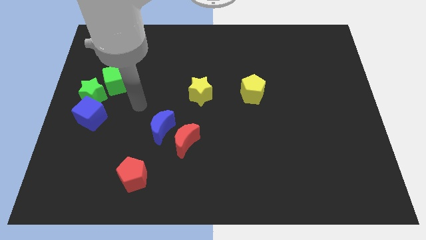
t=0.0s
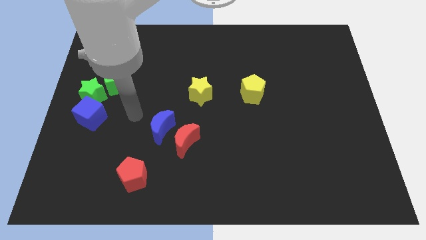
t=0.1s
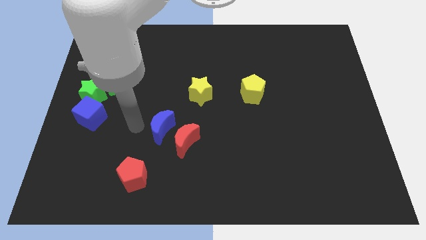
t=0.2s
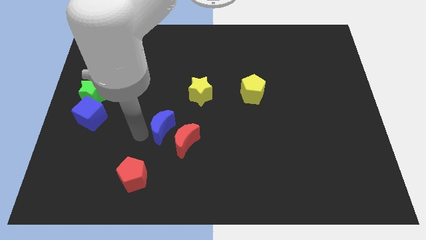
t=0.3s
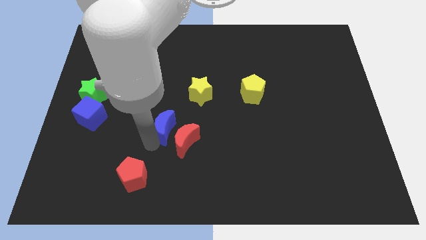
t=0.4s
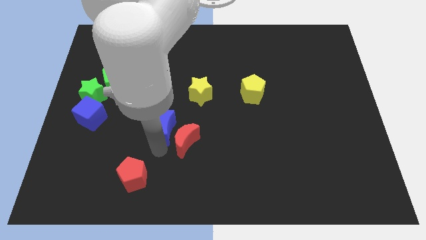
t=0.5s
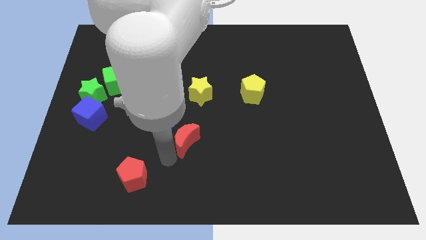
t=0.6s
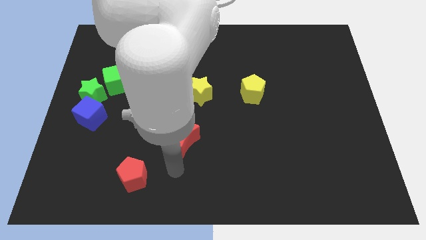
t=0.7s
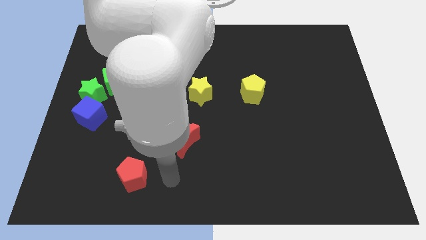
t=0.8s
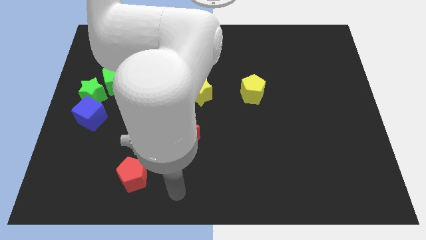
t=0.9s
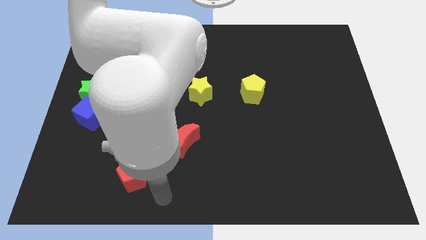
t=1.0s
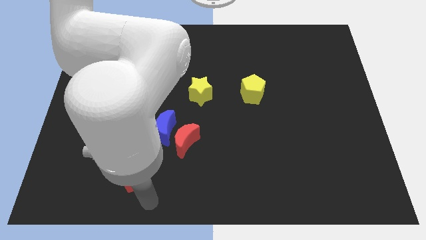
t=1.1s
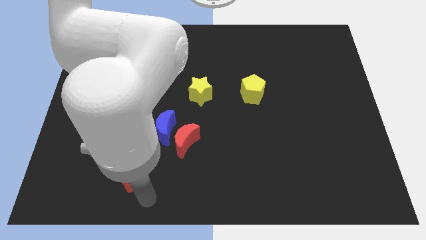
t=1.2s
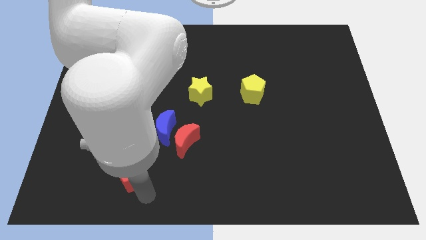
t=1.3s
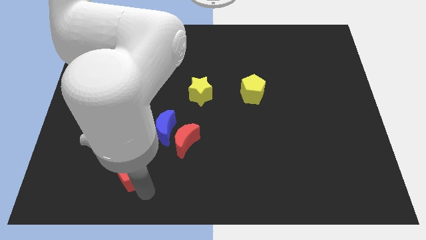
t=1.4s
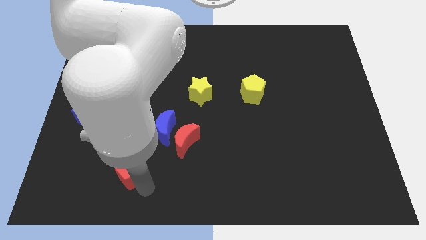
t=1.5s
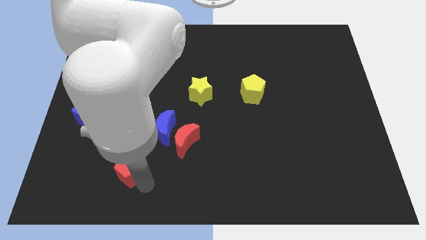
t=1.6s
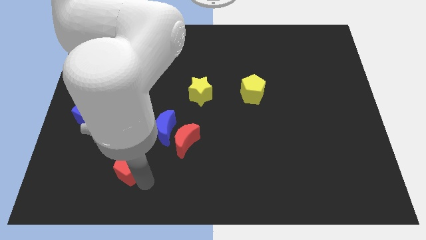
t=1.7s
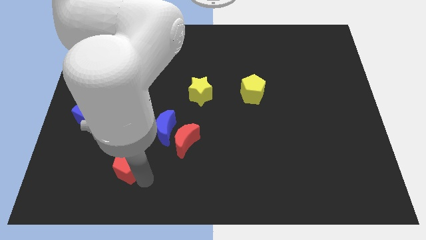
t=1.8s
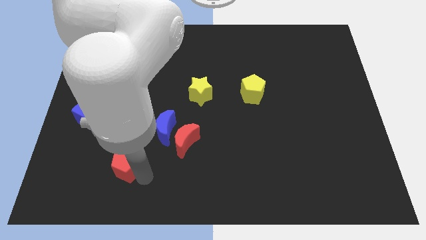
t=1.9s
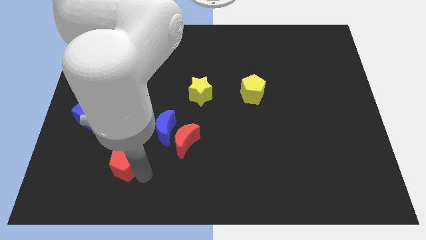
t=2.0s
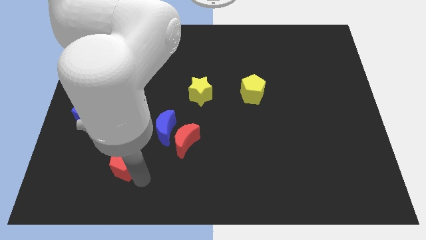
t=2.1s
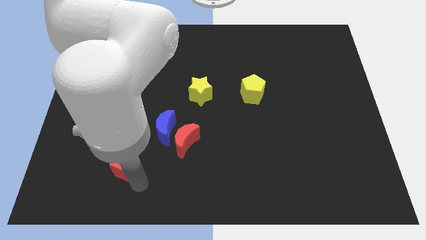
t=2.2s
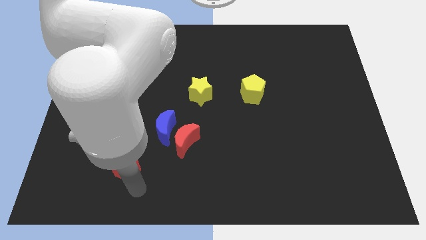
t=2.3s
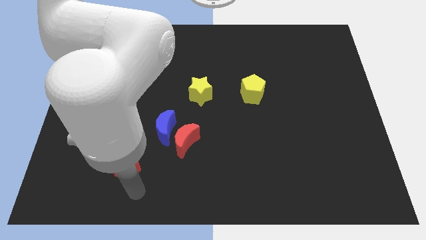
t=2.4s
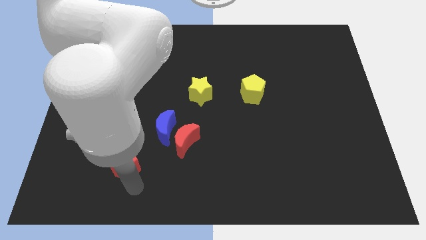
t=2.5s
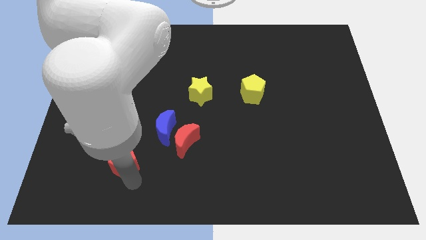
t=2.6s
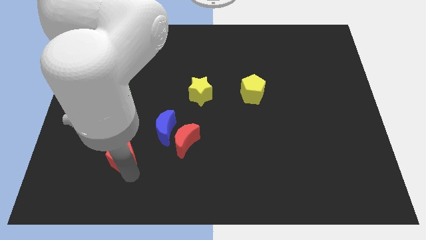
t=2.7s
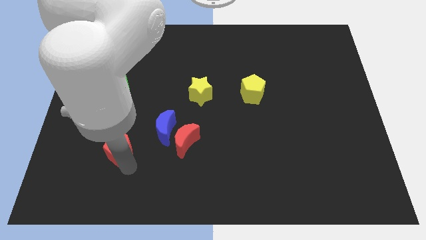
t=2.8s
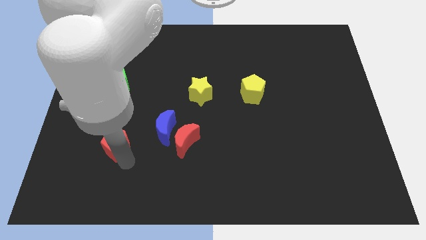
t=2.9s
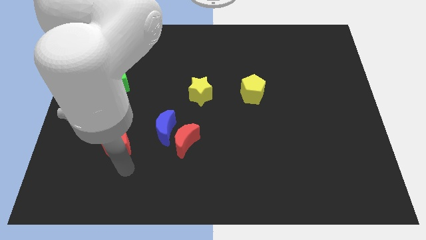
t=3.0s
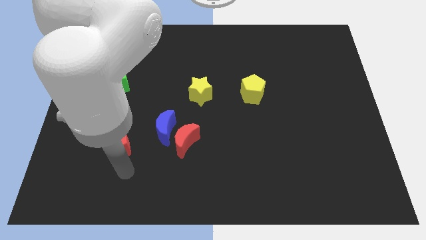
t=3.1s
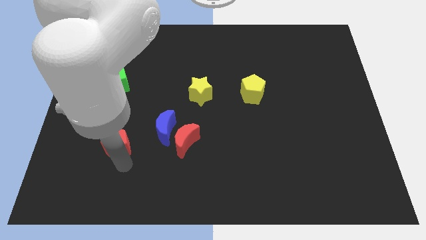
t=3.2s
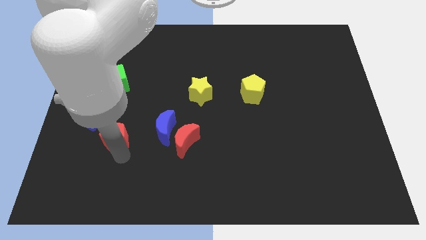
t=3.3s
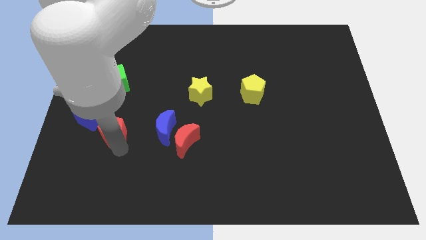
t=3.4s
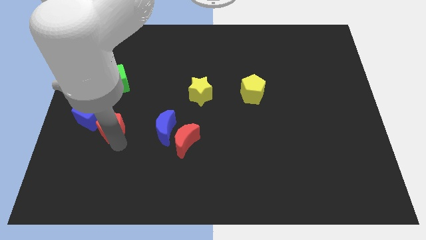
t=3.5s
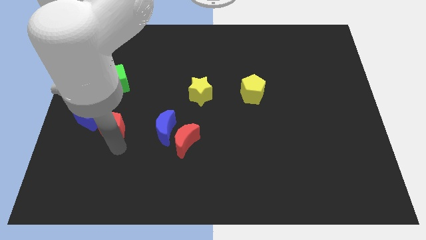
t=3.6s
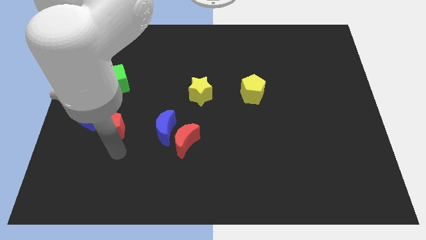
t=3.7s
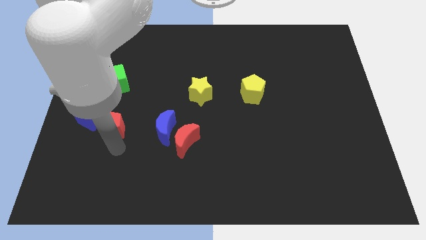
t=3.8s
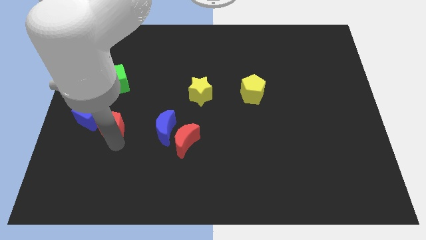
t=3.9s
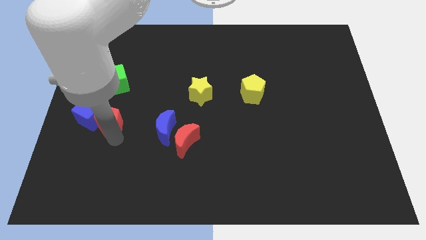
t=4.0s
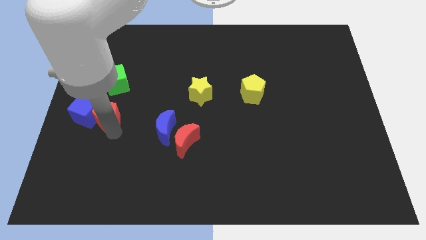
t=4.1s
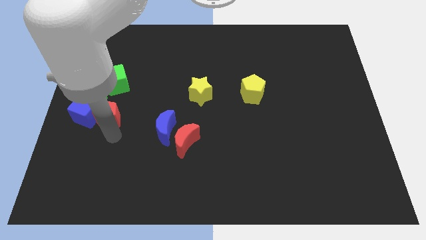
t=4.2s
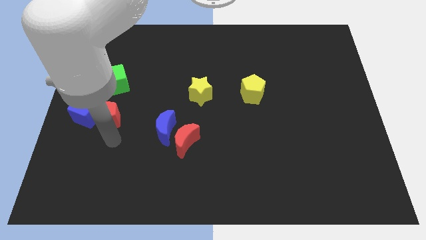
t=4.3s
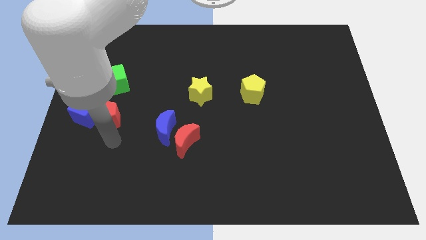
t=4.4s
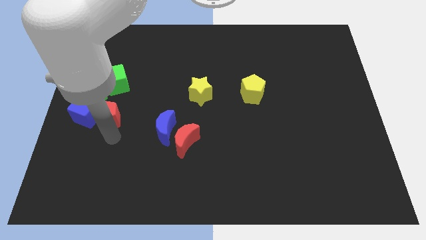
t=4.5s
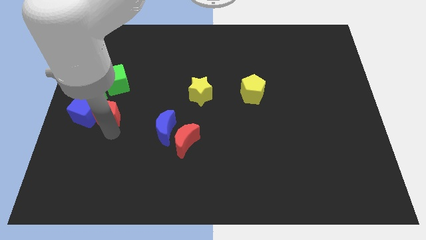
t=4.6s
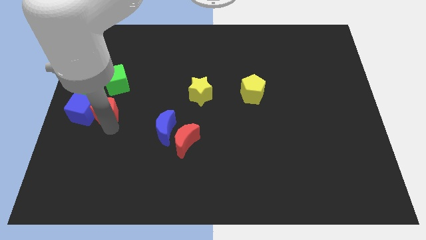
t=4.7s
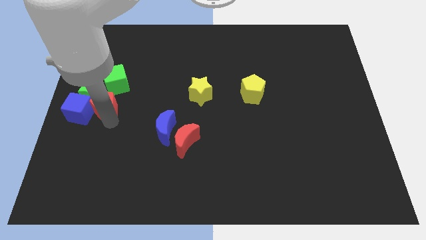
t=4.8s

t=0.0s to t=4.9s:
put the red pentagon to the green star

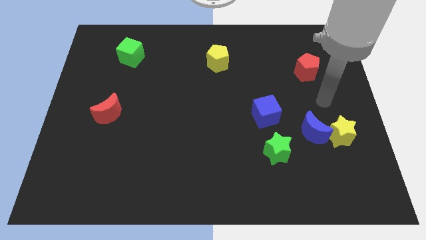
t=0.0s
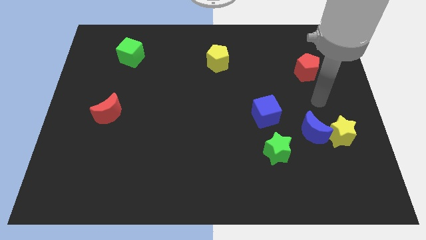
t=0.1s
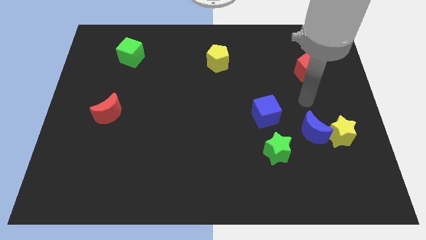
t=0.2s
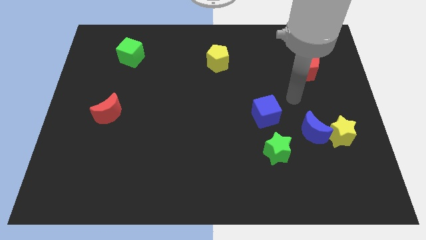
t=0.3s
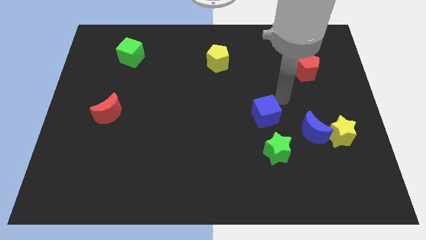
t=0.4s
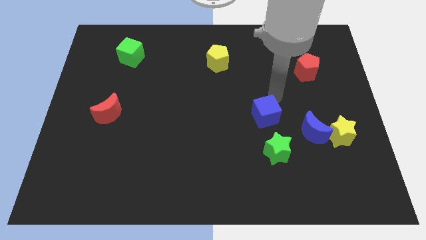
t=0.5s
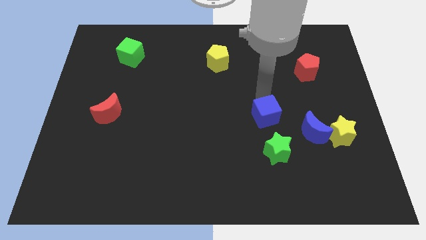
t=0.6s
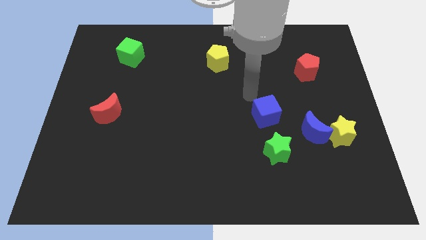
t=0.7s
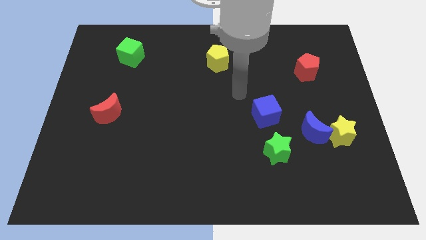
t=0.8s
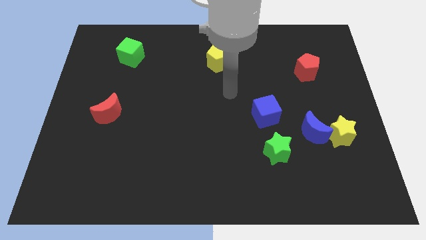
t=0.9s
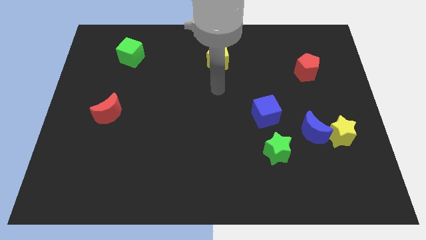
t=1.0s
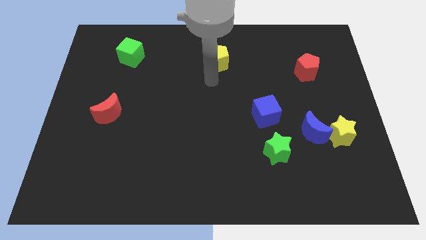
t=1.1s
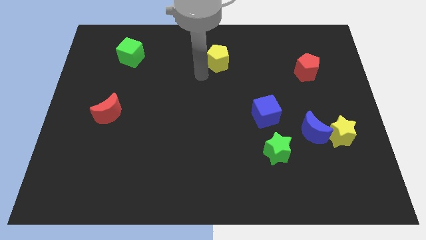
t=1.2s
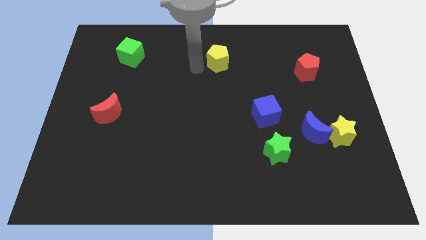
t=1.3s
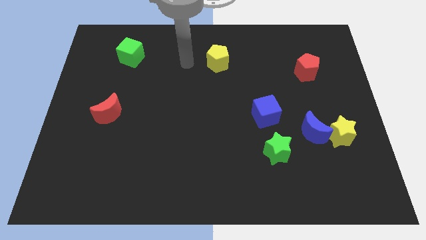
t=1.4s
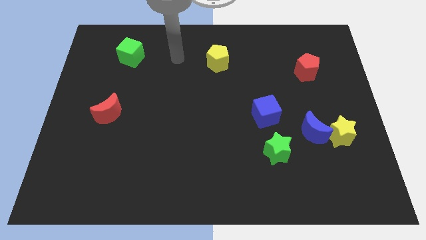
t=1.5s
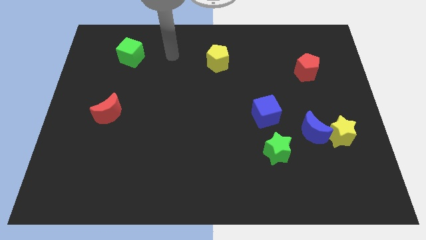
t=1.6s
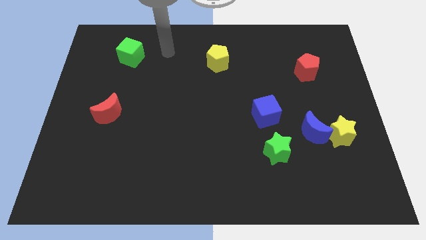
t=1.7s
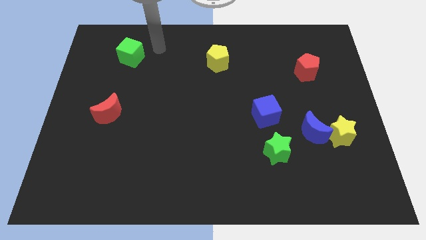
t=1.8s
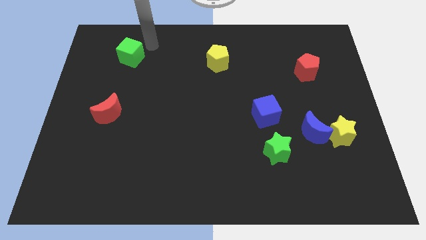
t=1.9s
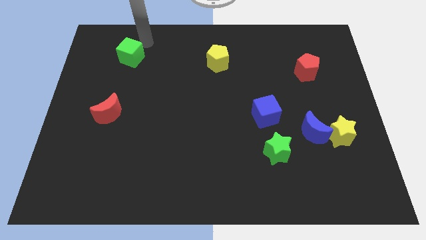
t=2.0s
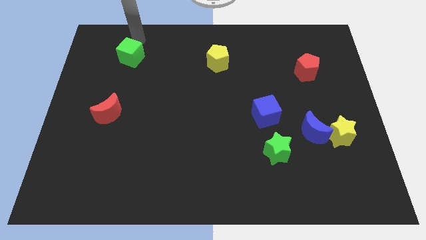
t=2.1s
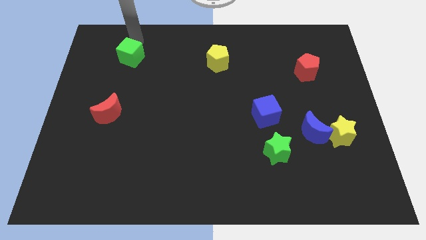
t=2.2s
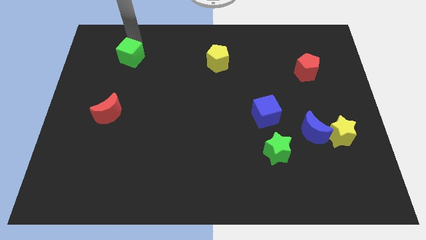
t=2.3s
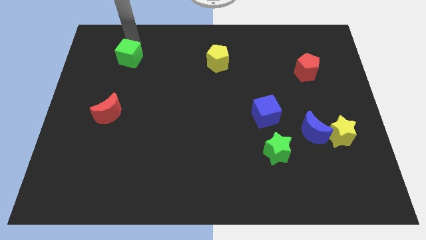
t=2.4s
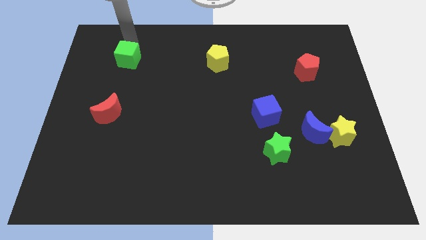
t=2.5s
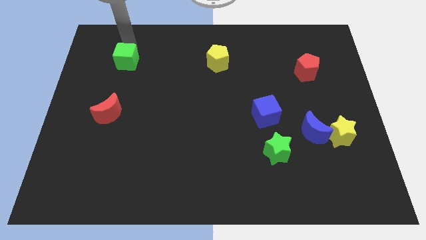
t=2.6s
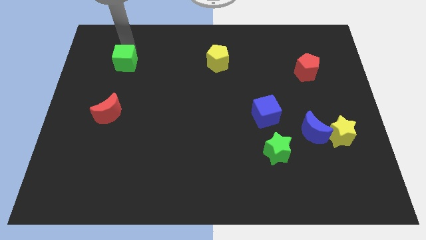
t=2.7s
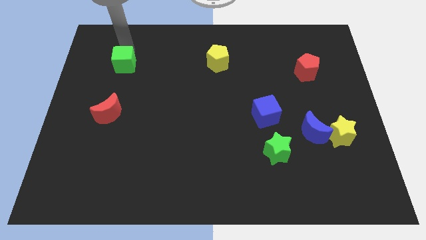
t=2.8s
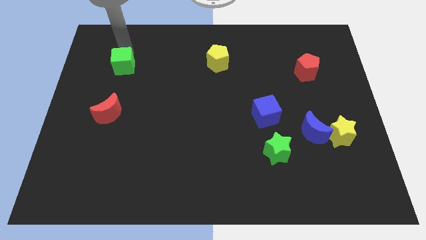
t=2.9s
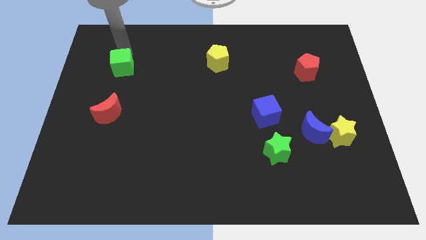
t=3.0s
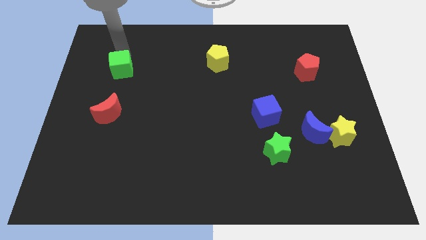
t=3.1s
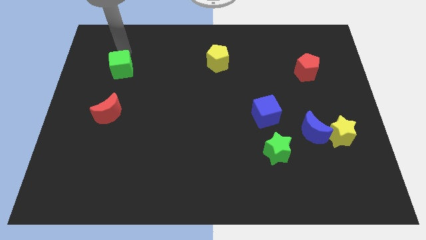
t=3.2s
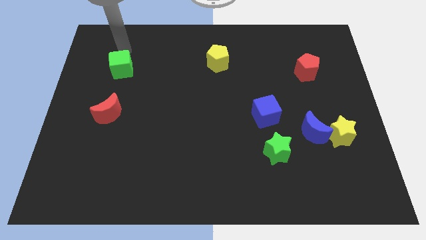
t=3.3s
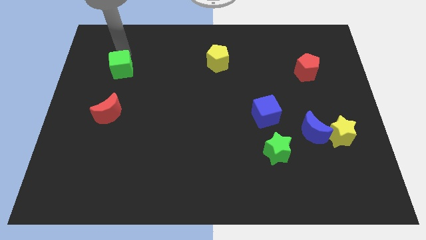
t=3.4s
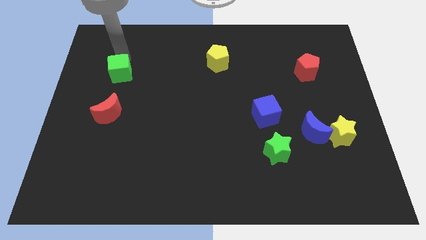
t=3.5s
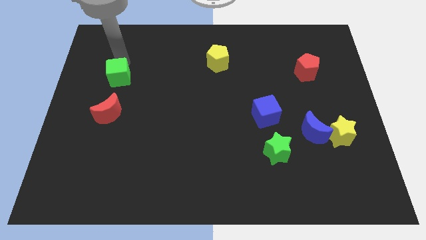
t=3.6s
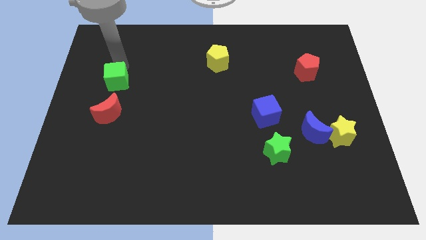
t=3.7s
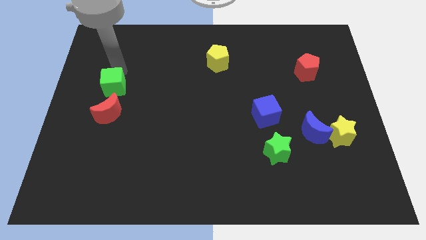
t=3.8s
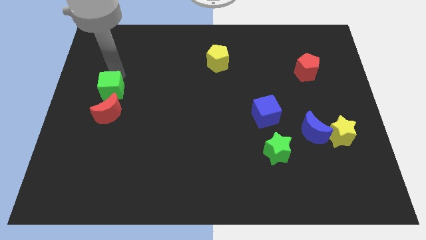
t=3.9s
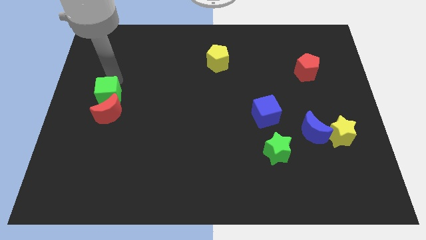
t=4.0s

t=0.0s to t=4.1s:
move the green cube close to the red moon
